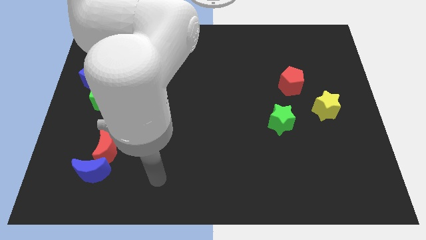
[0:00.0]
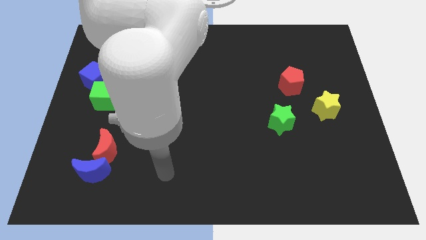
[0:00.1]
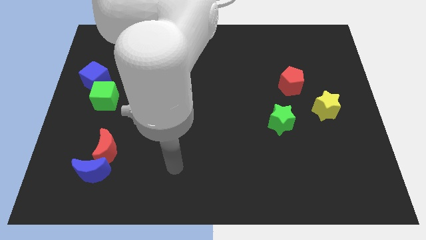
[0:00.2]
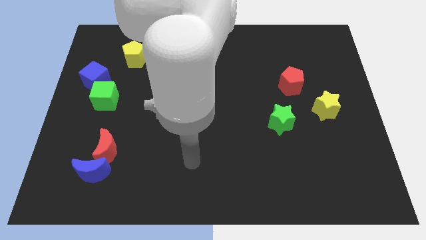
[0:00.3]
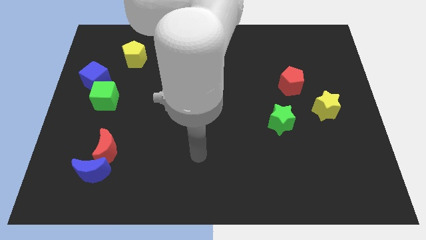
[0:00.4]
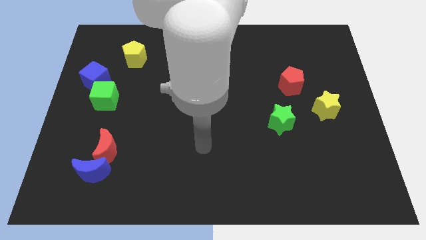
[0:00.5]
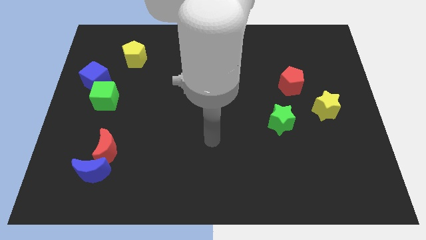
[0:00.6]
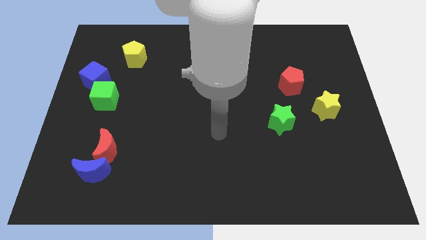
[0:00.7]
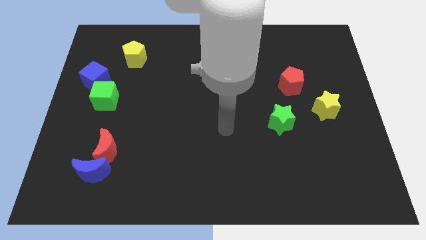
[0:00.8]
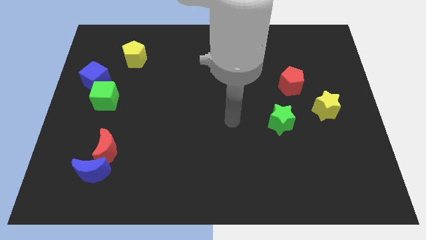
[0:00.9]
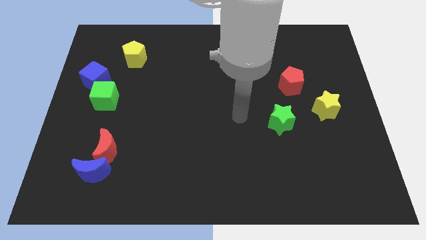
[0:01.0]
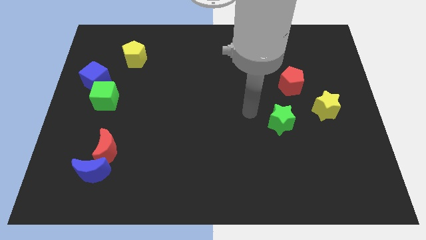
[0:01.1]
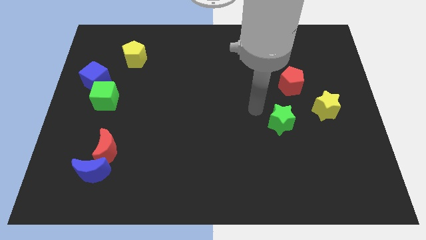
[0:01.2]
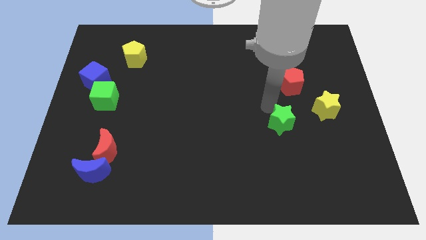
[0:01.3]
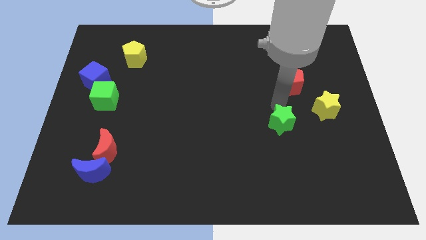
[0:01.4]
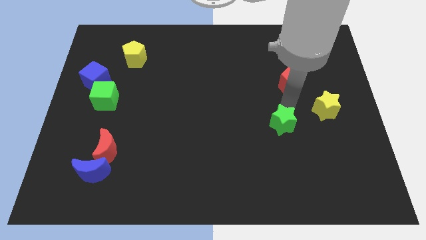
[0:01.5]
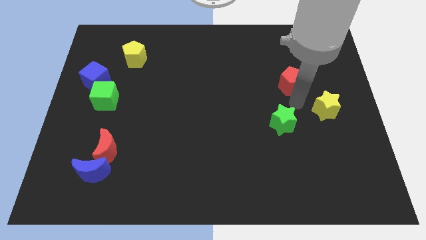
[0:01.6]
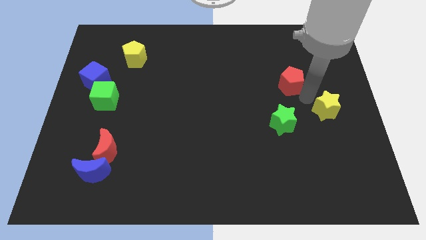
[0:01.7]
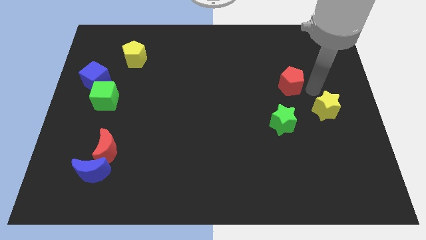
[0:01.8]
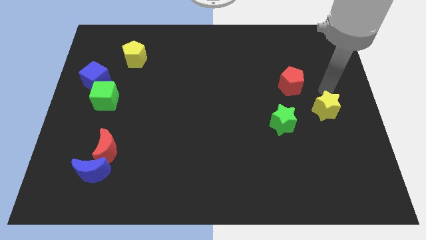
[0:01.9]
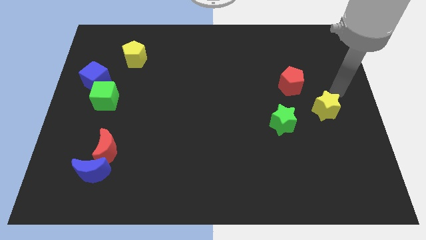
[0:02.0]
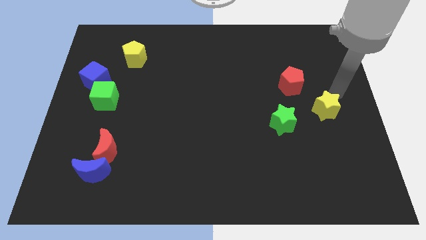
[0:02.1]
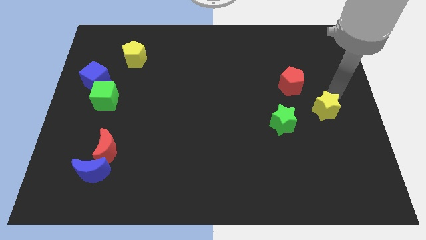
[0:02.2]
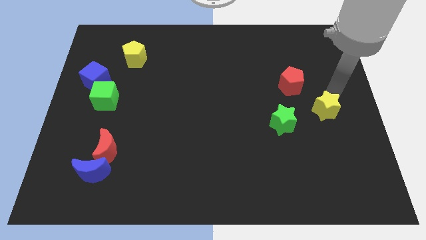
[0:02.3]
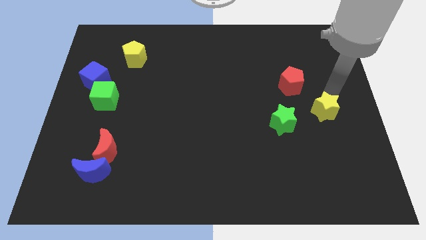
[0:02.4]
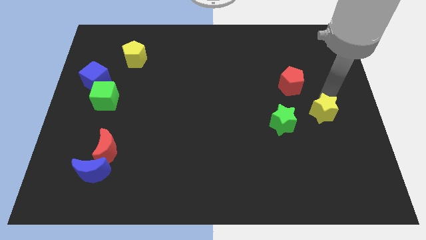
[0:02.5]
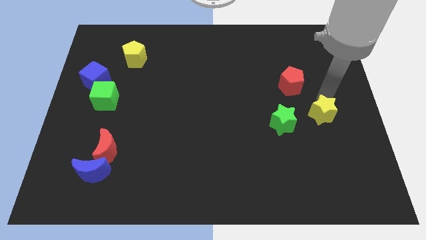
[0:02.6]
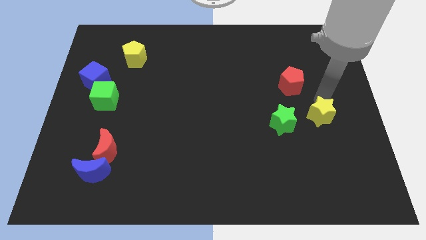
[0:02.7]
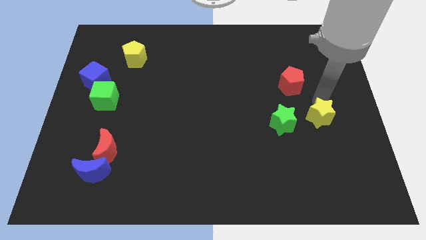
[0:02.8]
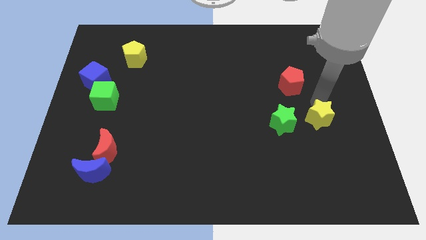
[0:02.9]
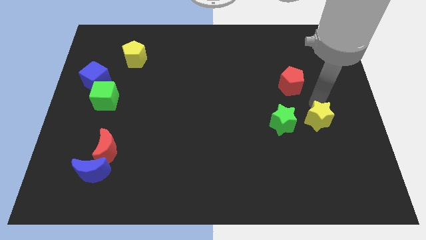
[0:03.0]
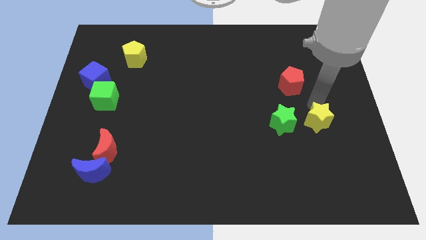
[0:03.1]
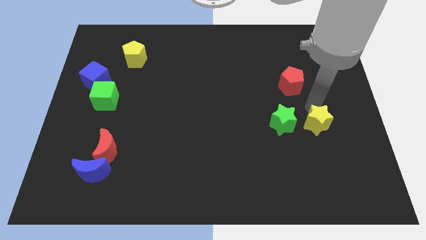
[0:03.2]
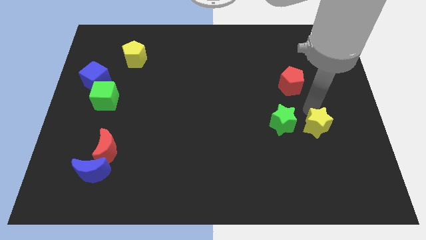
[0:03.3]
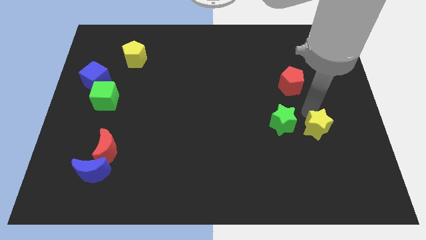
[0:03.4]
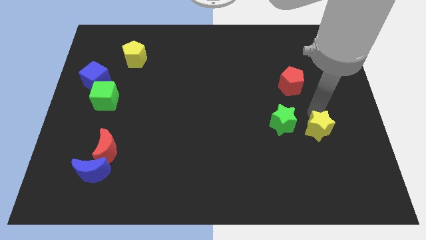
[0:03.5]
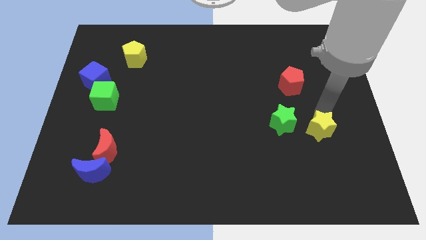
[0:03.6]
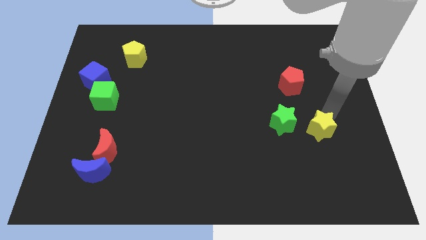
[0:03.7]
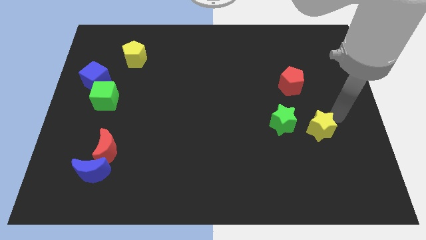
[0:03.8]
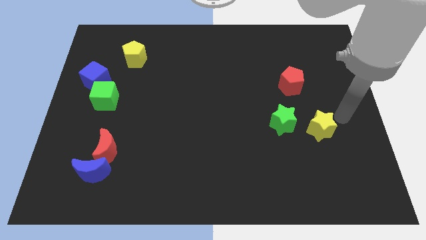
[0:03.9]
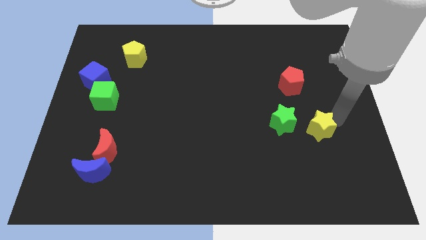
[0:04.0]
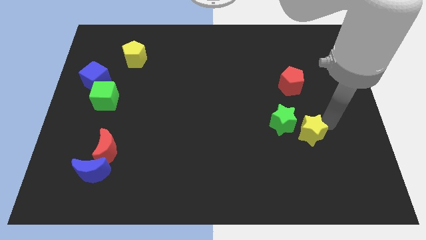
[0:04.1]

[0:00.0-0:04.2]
slightly move the yellow star downwards and then to the left

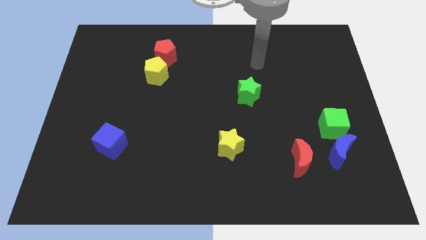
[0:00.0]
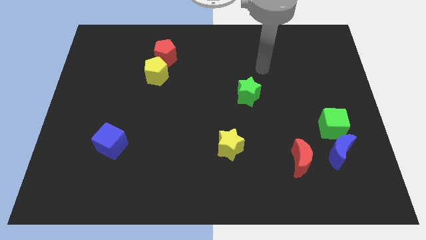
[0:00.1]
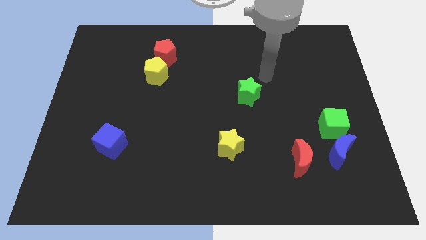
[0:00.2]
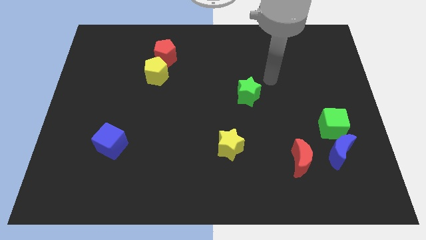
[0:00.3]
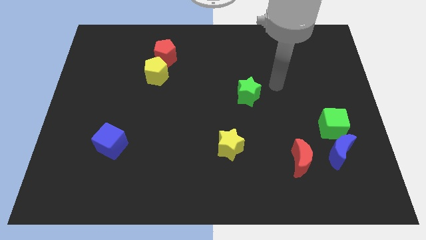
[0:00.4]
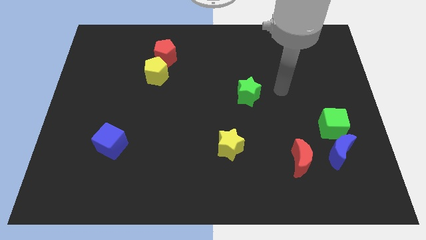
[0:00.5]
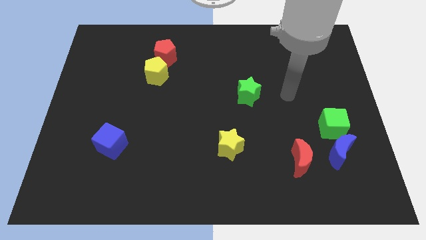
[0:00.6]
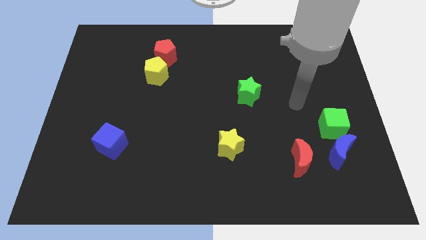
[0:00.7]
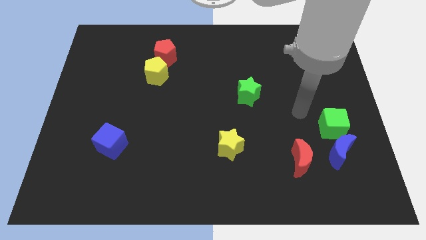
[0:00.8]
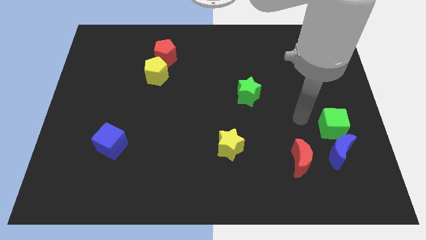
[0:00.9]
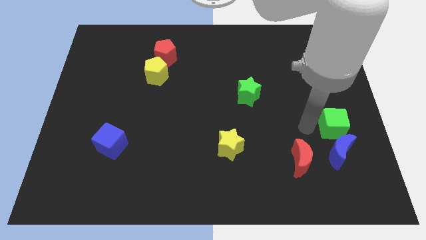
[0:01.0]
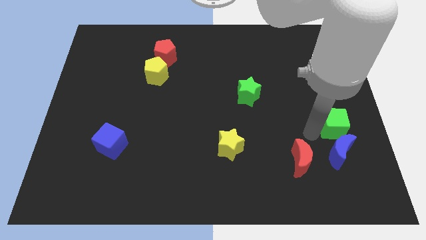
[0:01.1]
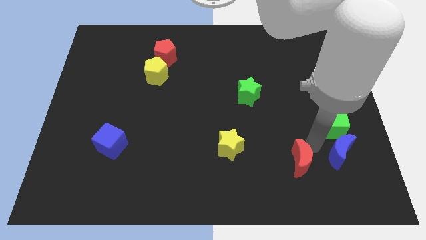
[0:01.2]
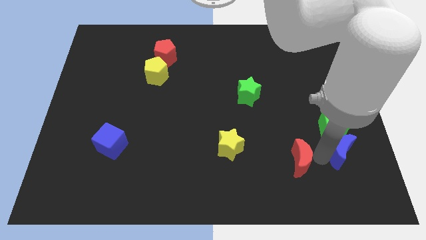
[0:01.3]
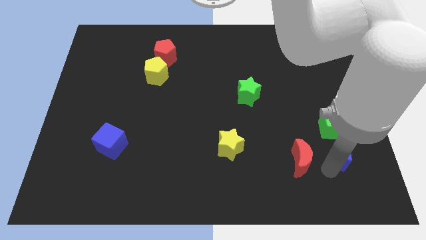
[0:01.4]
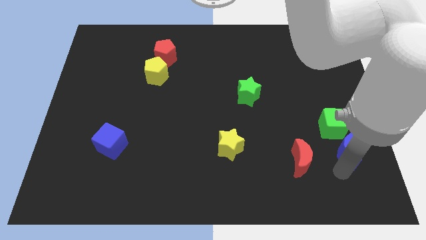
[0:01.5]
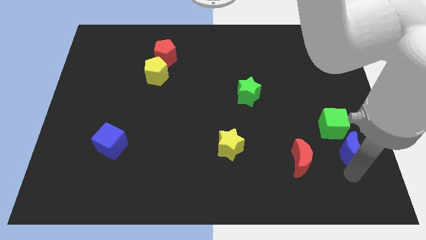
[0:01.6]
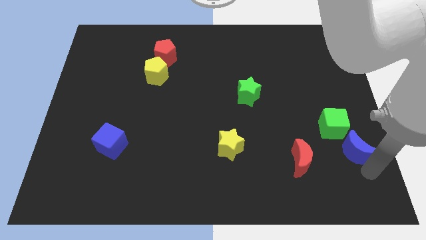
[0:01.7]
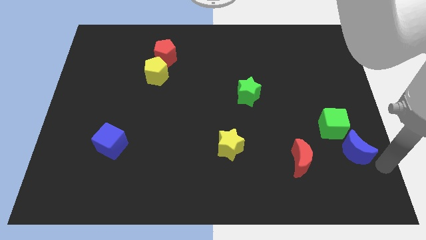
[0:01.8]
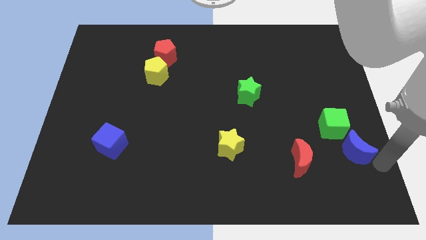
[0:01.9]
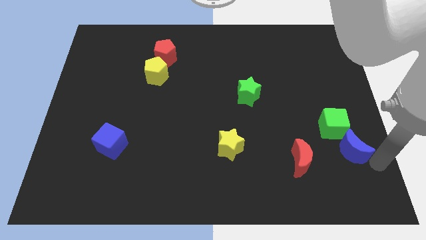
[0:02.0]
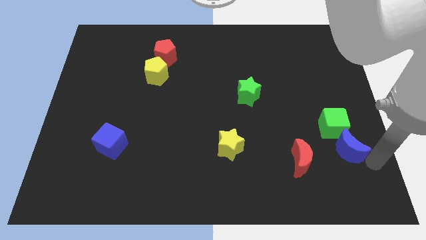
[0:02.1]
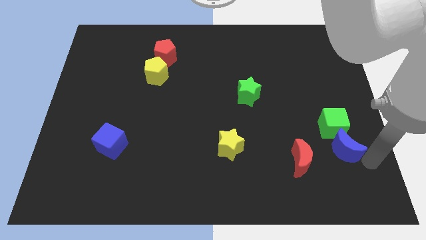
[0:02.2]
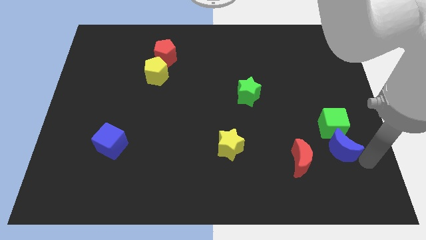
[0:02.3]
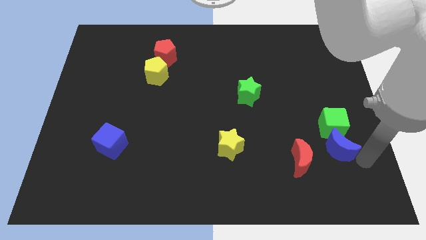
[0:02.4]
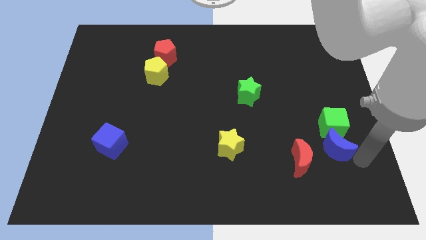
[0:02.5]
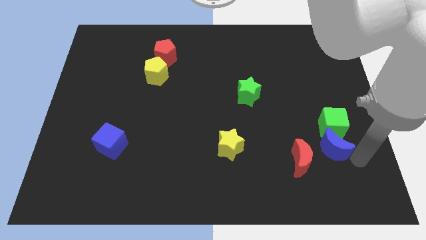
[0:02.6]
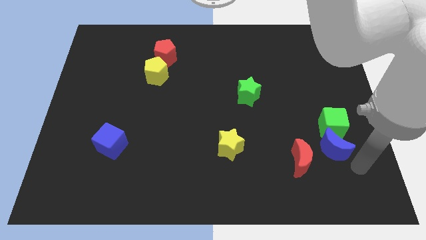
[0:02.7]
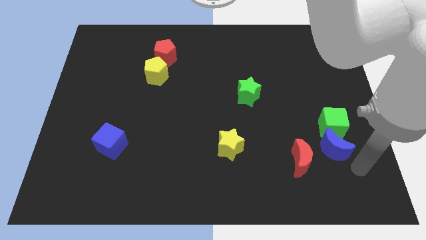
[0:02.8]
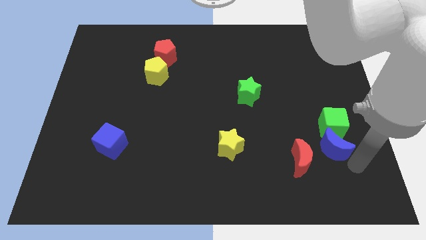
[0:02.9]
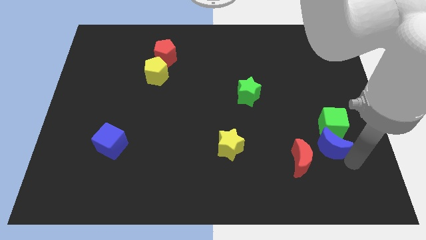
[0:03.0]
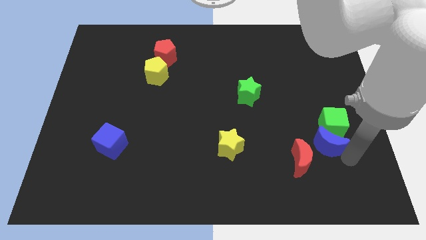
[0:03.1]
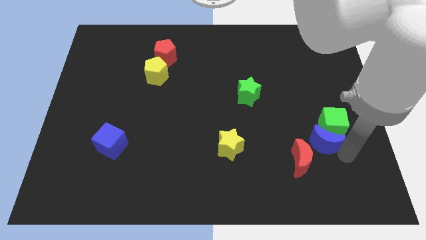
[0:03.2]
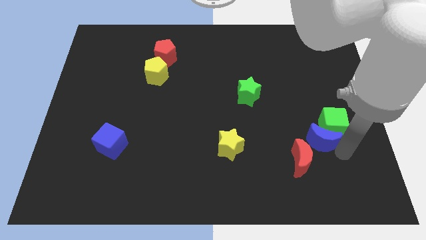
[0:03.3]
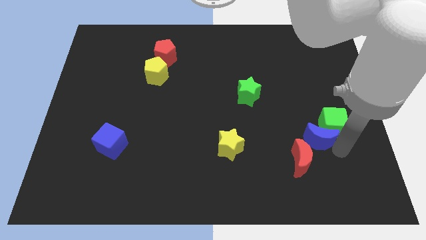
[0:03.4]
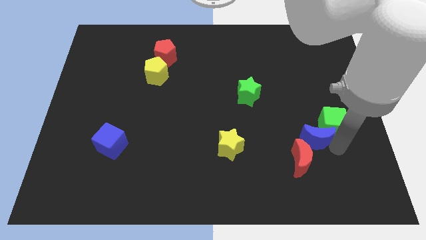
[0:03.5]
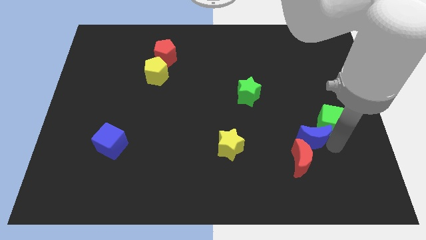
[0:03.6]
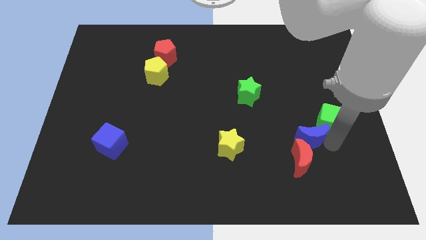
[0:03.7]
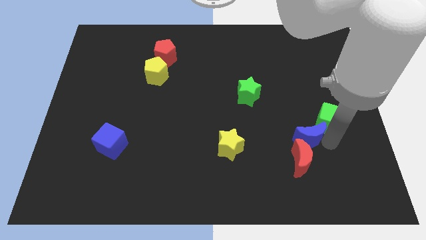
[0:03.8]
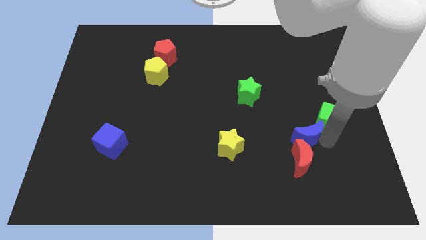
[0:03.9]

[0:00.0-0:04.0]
slightly move the blue moon diagonally upwards and left
